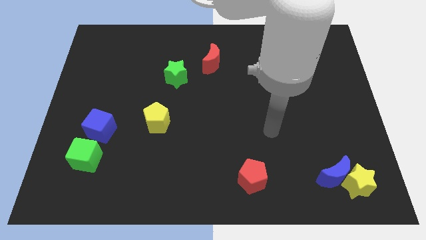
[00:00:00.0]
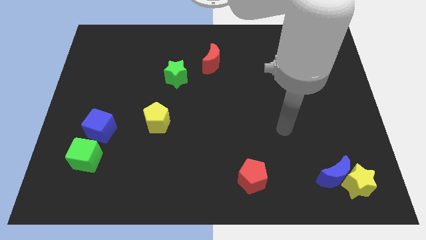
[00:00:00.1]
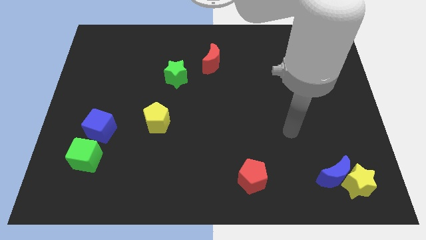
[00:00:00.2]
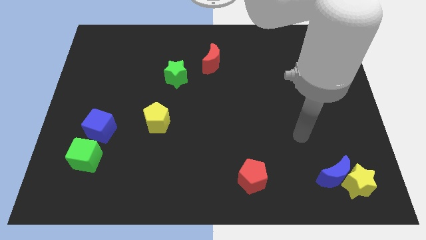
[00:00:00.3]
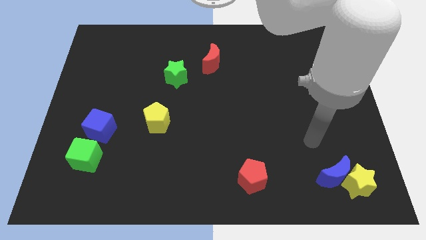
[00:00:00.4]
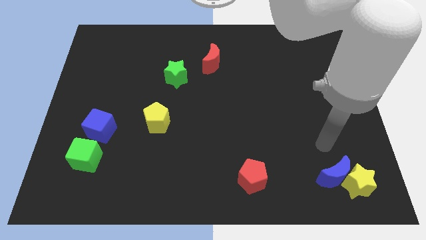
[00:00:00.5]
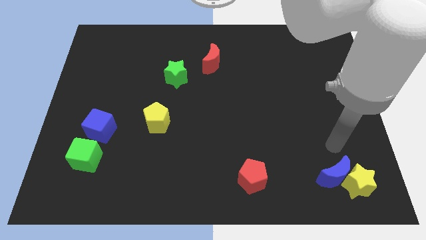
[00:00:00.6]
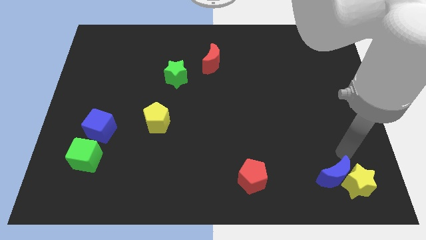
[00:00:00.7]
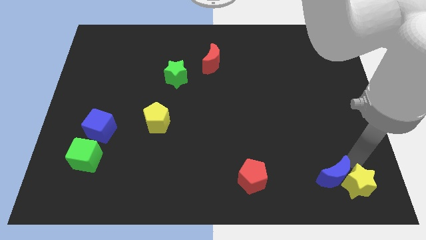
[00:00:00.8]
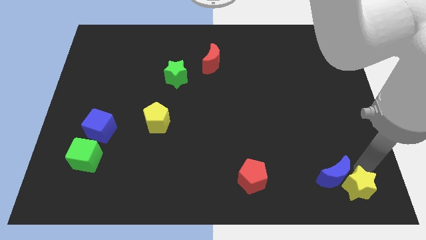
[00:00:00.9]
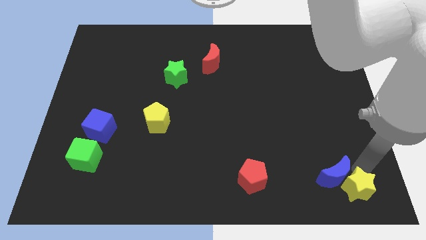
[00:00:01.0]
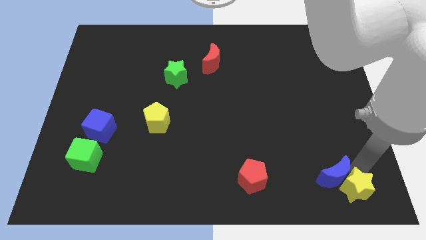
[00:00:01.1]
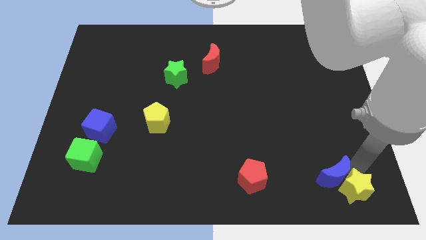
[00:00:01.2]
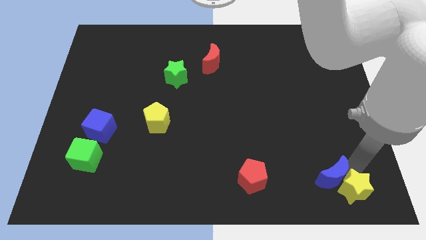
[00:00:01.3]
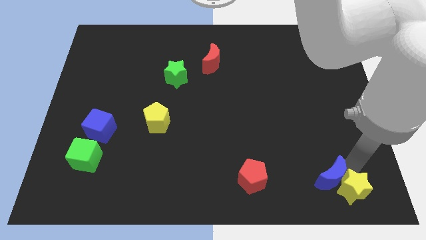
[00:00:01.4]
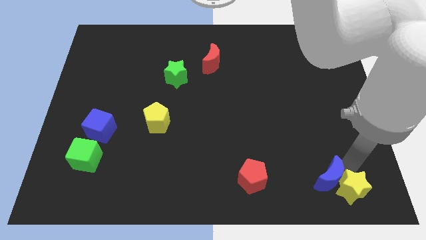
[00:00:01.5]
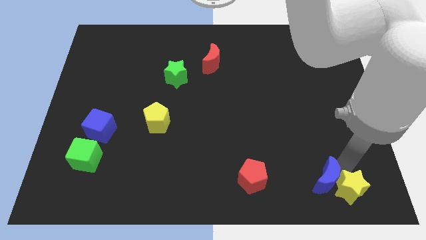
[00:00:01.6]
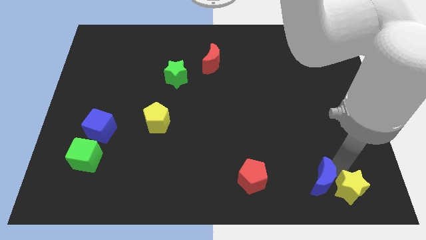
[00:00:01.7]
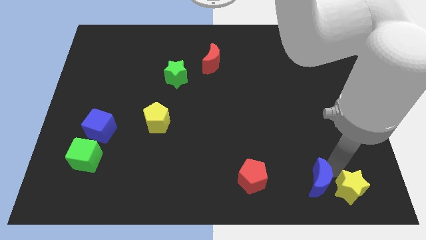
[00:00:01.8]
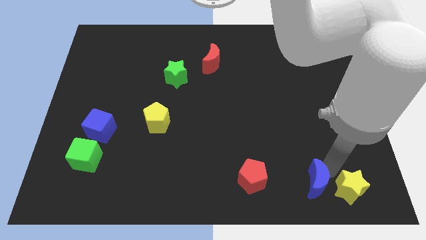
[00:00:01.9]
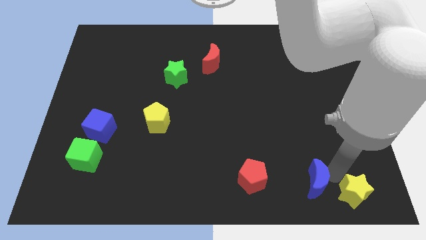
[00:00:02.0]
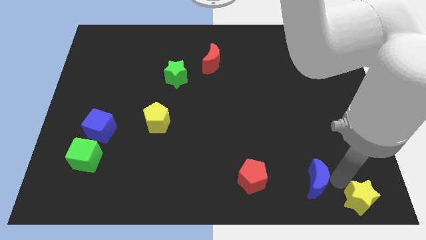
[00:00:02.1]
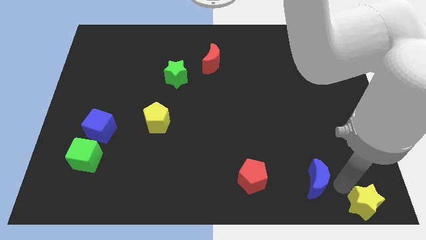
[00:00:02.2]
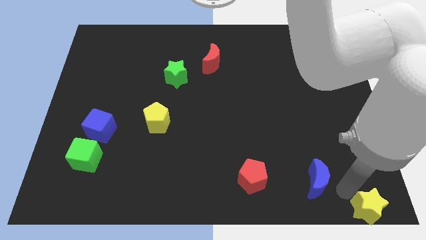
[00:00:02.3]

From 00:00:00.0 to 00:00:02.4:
separate the blue moon from the yellow star

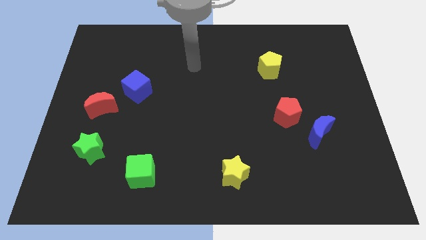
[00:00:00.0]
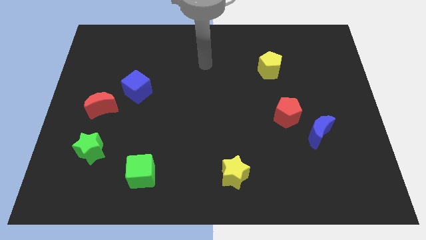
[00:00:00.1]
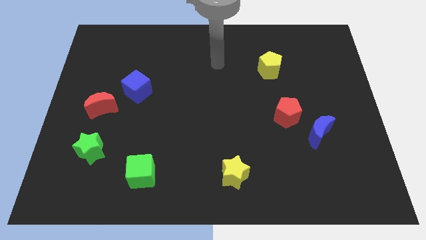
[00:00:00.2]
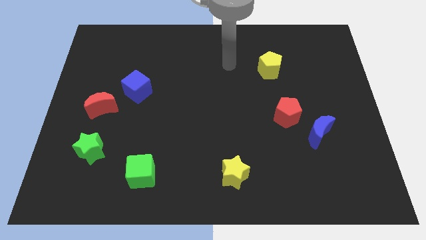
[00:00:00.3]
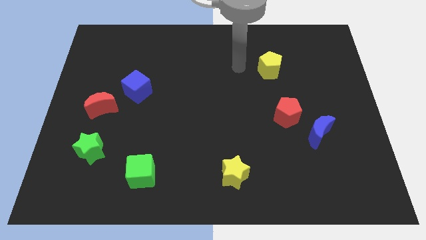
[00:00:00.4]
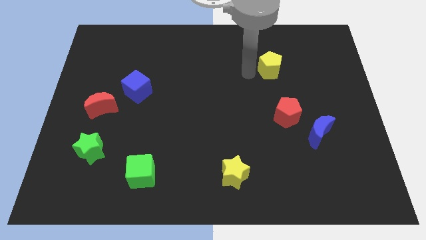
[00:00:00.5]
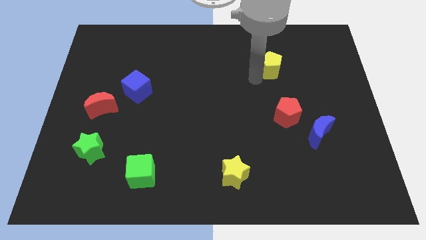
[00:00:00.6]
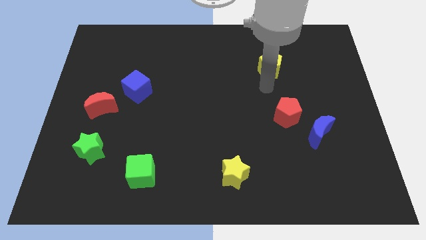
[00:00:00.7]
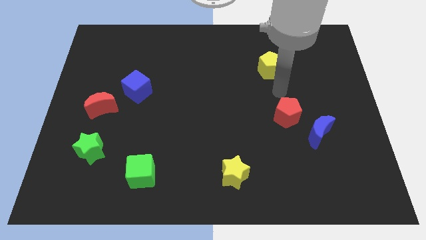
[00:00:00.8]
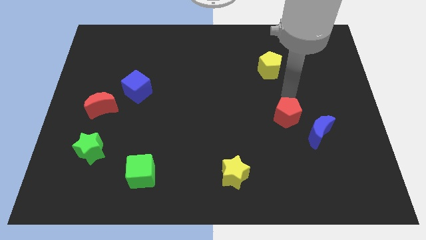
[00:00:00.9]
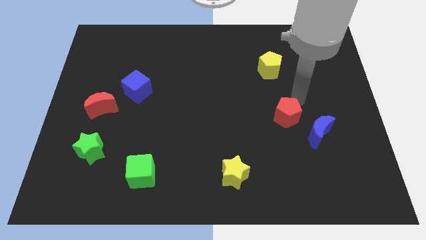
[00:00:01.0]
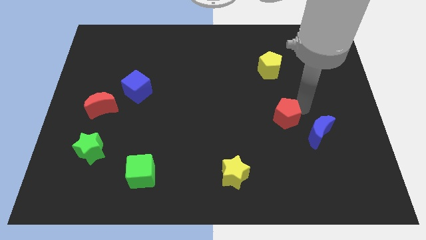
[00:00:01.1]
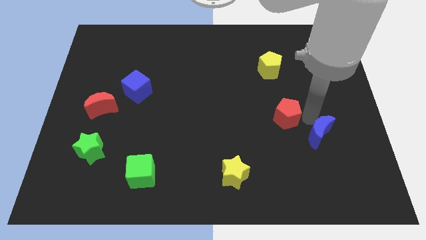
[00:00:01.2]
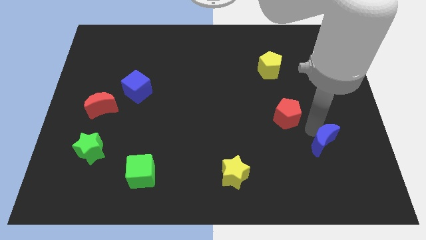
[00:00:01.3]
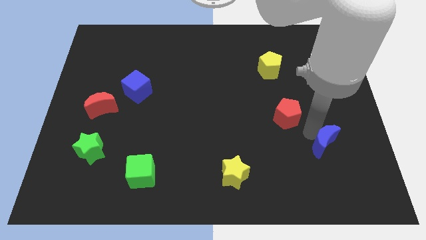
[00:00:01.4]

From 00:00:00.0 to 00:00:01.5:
pull the red pentagon apart from the blue moon

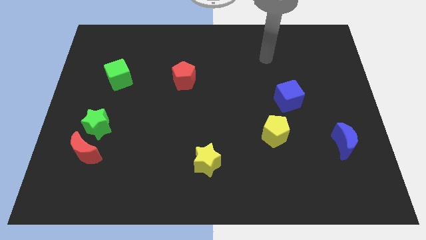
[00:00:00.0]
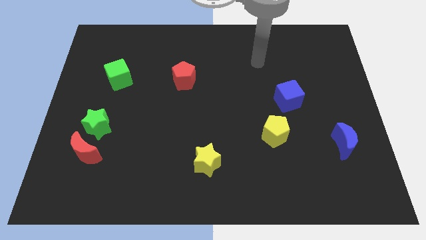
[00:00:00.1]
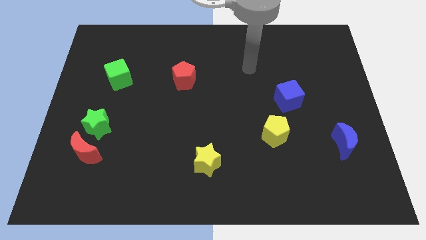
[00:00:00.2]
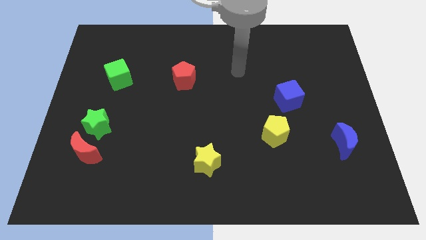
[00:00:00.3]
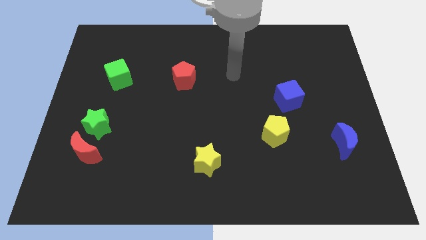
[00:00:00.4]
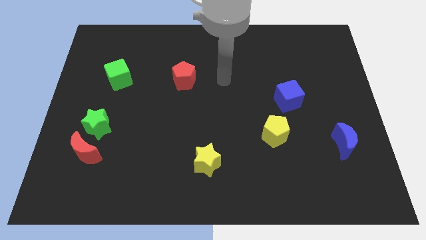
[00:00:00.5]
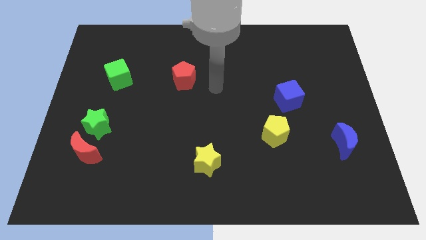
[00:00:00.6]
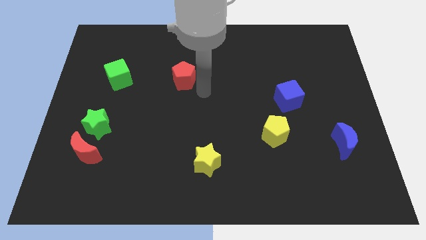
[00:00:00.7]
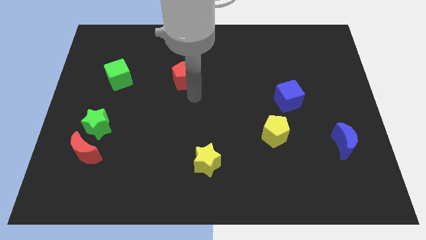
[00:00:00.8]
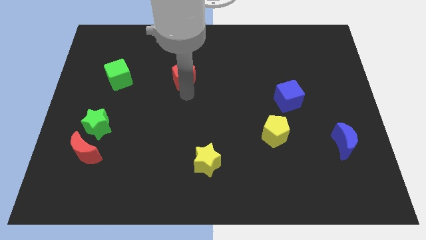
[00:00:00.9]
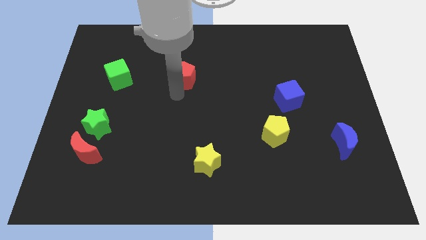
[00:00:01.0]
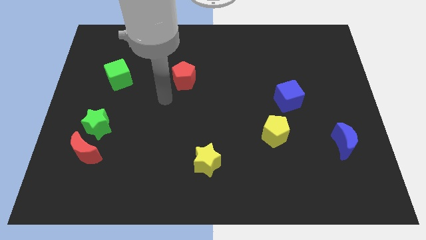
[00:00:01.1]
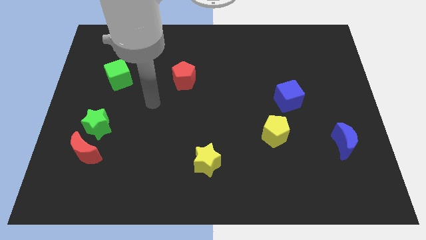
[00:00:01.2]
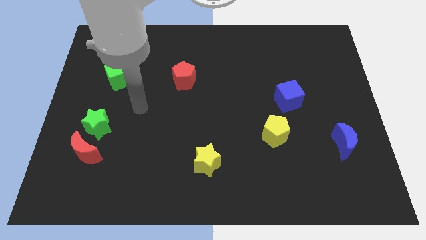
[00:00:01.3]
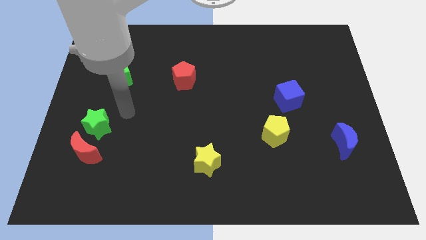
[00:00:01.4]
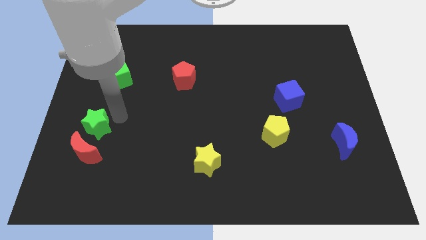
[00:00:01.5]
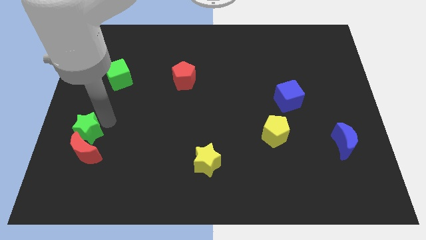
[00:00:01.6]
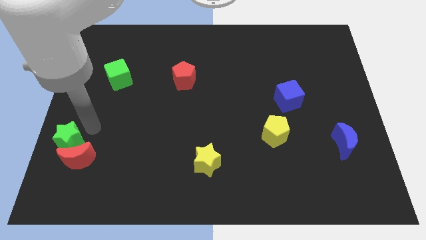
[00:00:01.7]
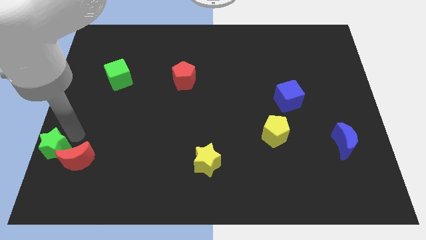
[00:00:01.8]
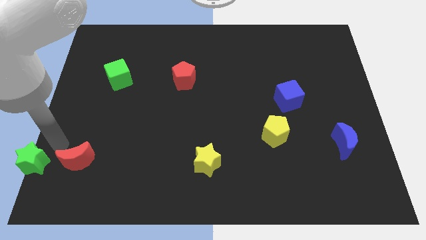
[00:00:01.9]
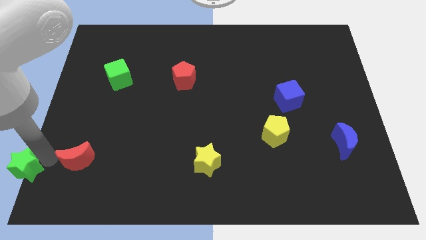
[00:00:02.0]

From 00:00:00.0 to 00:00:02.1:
move the red moon away from the green star

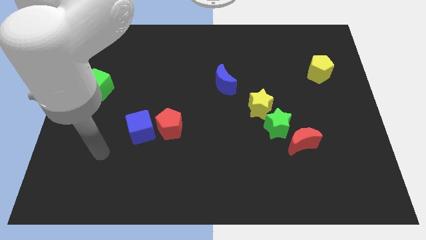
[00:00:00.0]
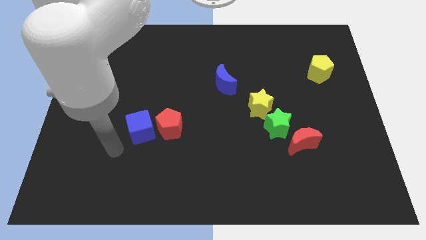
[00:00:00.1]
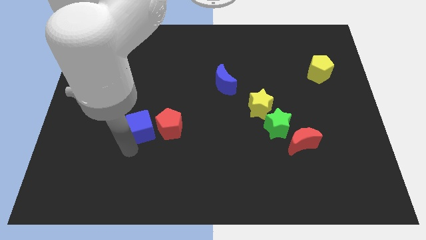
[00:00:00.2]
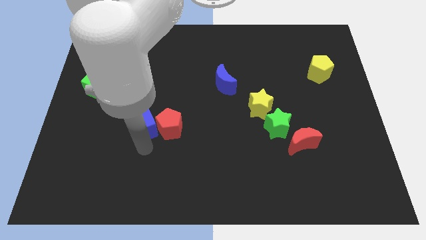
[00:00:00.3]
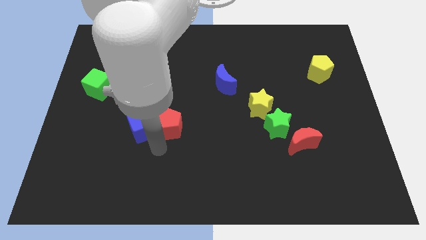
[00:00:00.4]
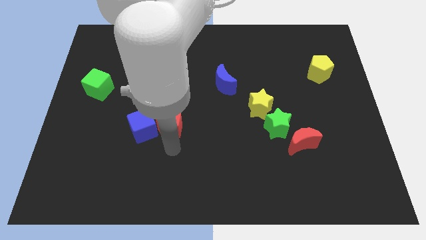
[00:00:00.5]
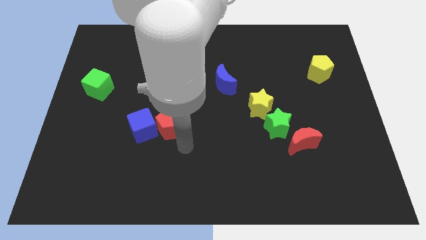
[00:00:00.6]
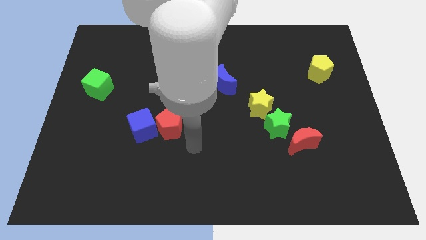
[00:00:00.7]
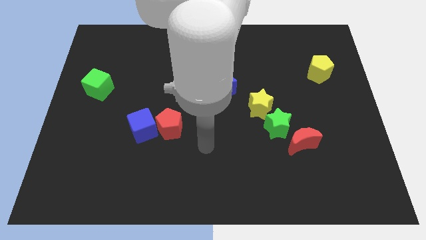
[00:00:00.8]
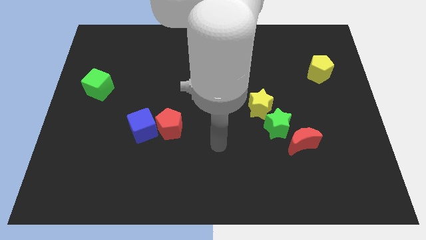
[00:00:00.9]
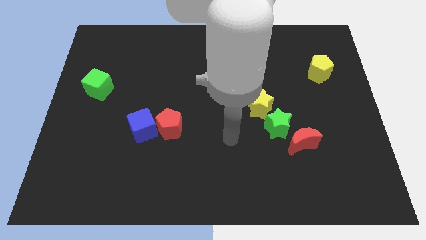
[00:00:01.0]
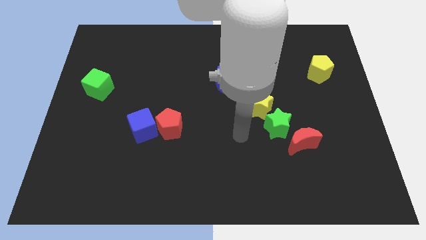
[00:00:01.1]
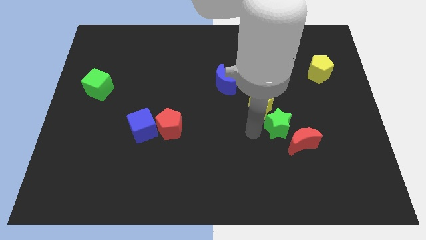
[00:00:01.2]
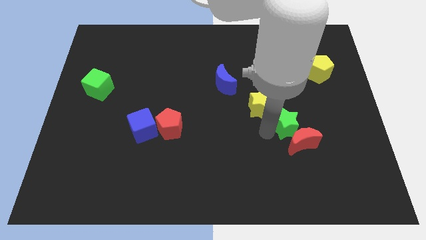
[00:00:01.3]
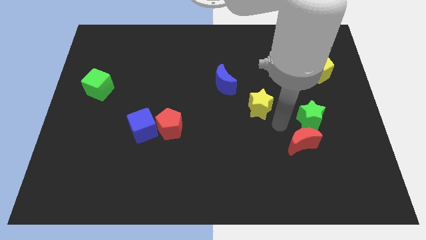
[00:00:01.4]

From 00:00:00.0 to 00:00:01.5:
move the yellow star away from the green star

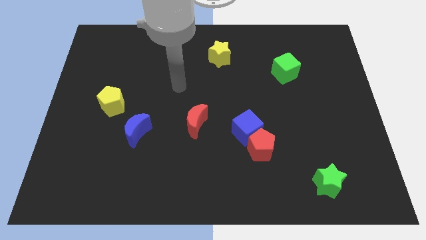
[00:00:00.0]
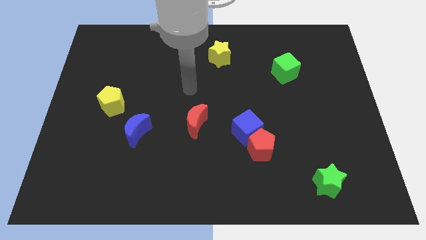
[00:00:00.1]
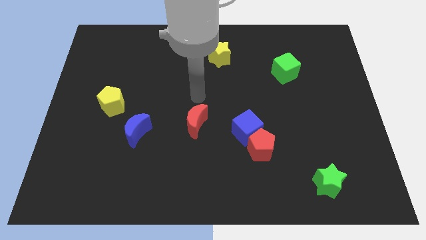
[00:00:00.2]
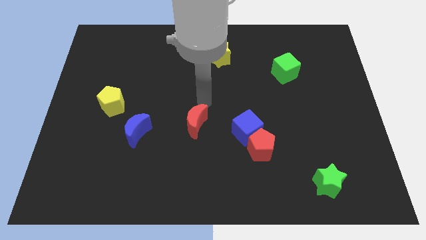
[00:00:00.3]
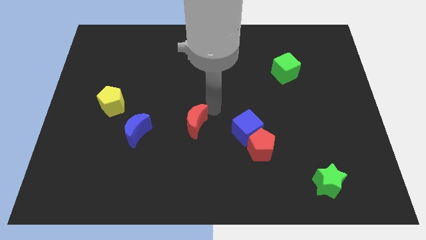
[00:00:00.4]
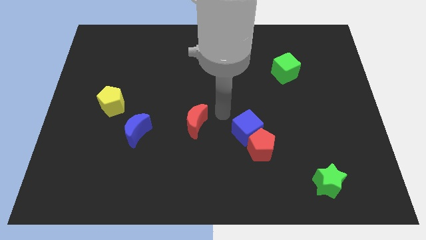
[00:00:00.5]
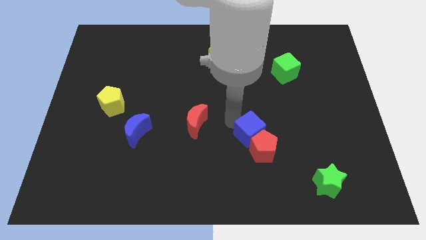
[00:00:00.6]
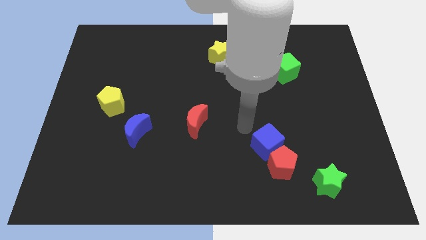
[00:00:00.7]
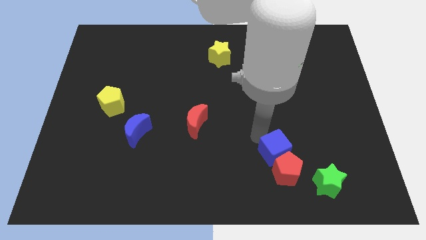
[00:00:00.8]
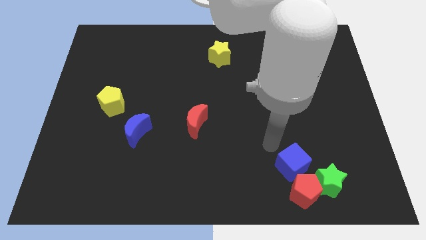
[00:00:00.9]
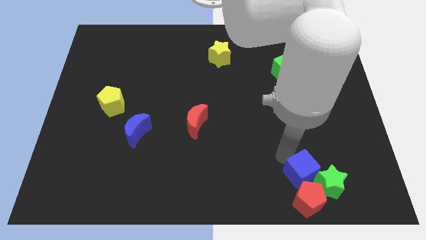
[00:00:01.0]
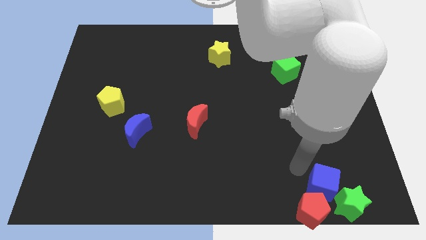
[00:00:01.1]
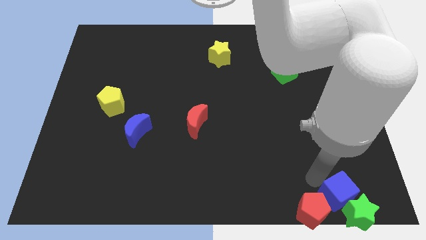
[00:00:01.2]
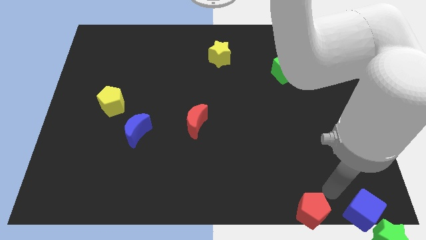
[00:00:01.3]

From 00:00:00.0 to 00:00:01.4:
move the red pentagon away from the blue cube

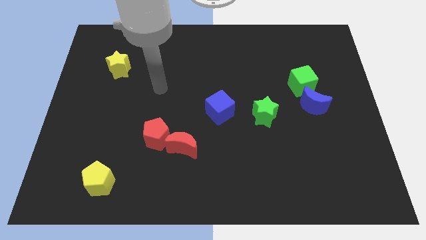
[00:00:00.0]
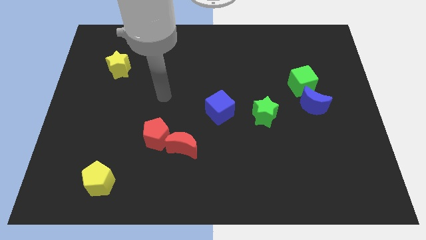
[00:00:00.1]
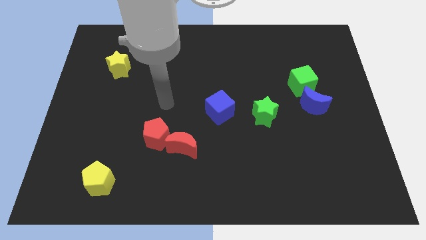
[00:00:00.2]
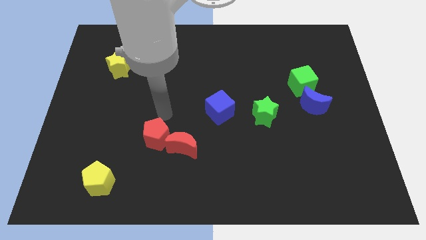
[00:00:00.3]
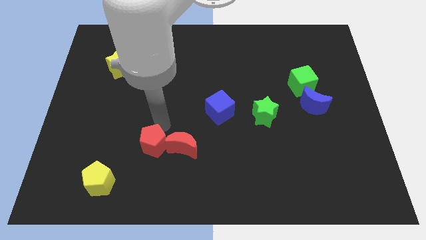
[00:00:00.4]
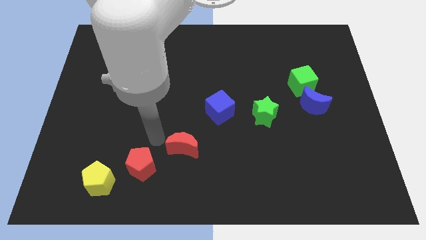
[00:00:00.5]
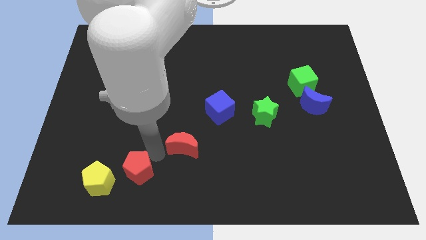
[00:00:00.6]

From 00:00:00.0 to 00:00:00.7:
separate the red moon from the red pentagon
